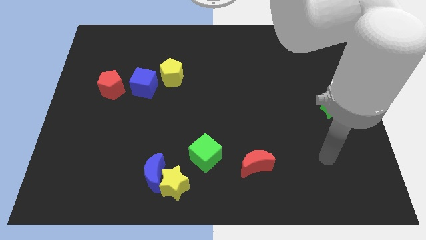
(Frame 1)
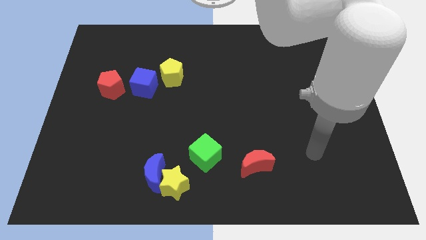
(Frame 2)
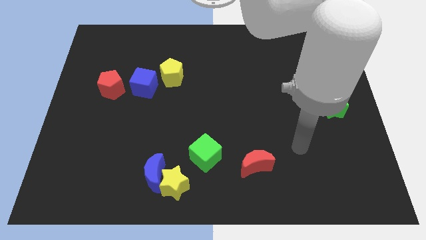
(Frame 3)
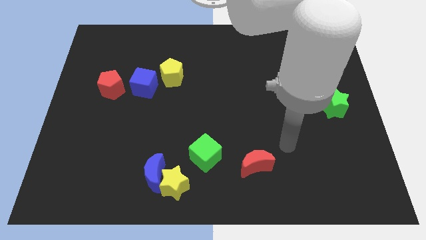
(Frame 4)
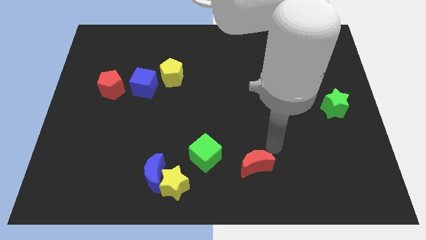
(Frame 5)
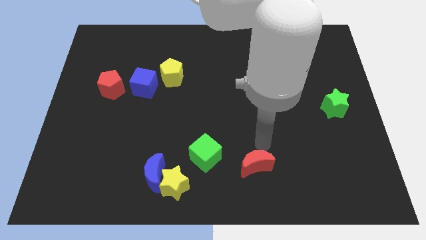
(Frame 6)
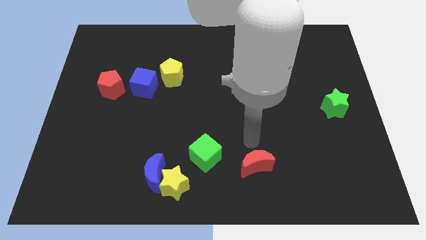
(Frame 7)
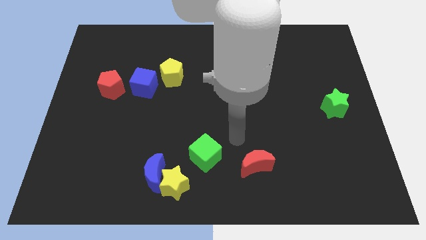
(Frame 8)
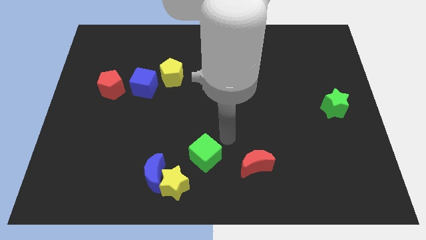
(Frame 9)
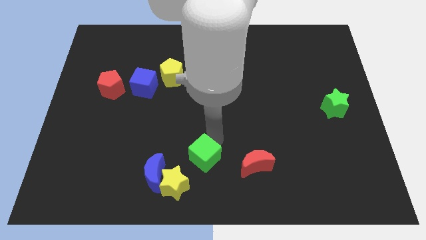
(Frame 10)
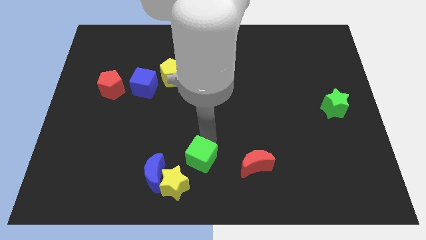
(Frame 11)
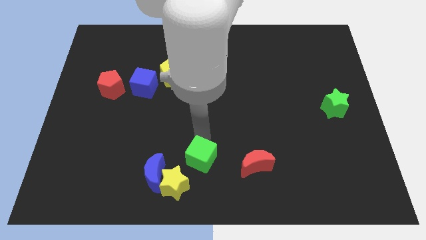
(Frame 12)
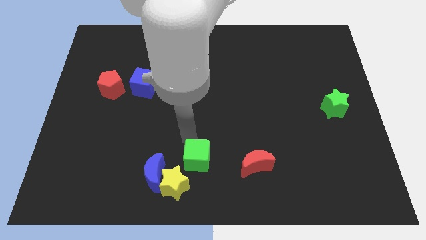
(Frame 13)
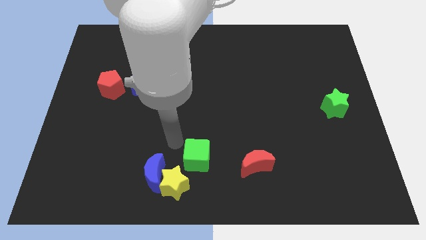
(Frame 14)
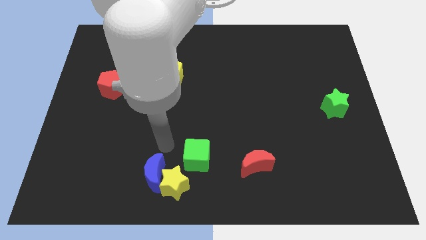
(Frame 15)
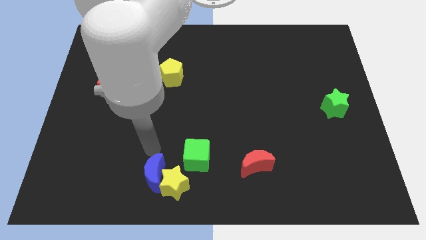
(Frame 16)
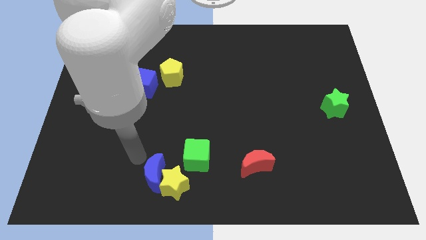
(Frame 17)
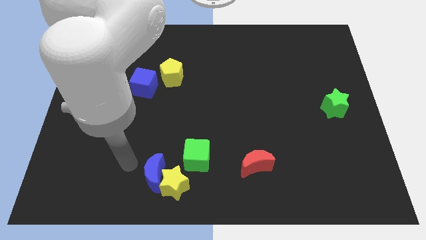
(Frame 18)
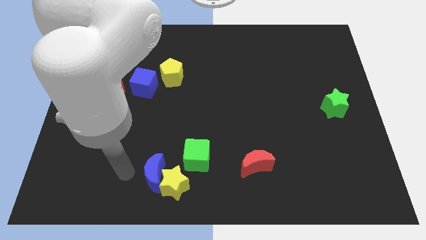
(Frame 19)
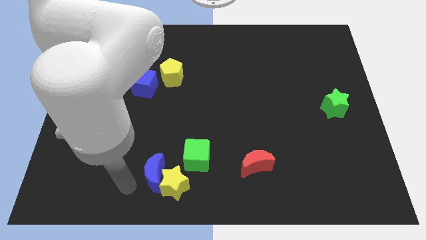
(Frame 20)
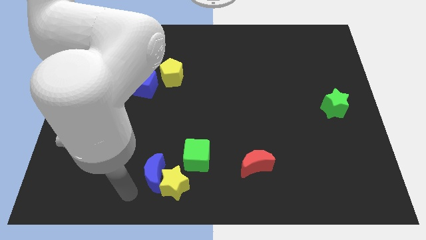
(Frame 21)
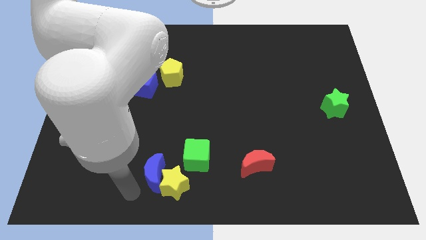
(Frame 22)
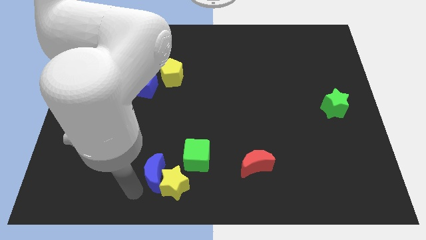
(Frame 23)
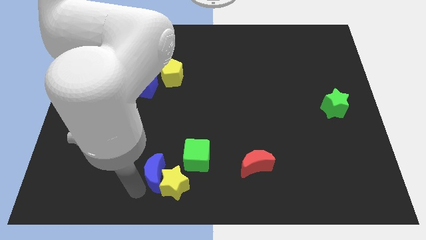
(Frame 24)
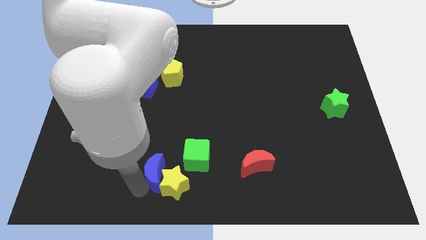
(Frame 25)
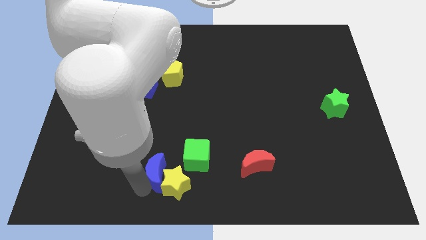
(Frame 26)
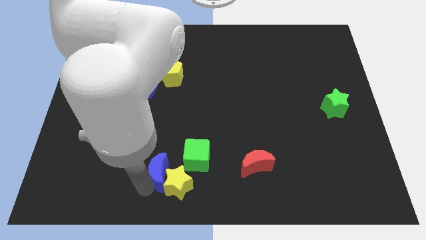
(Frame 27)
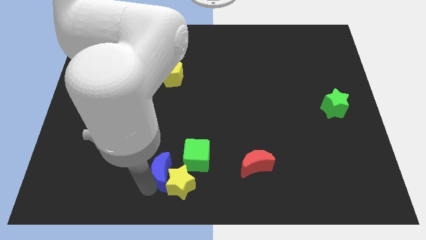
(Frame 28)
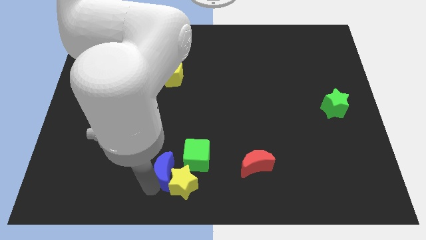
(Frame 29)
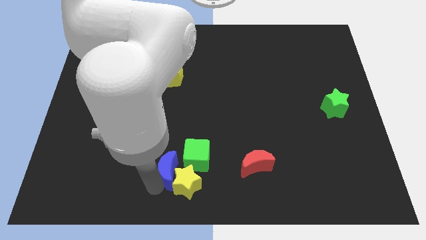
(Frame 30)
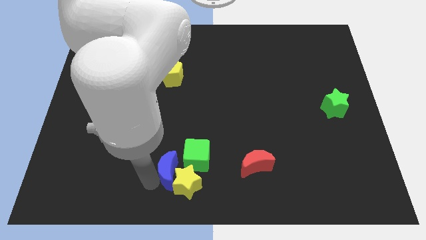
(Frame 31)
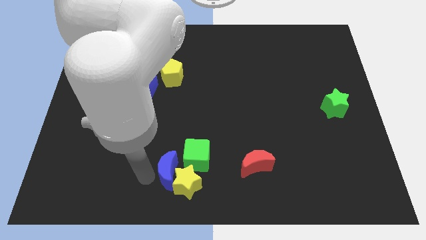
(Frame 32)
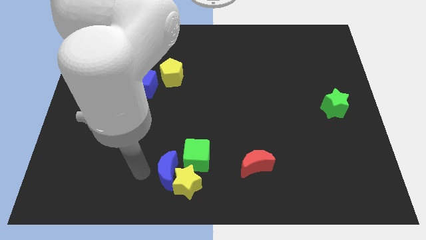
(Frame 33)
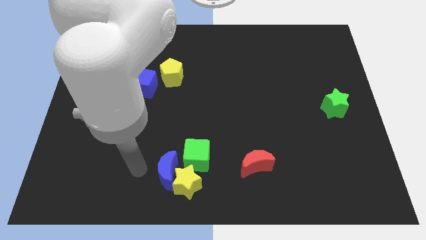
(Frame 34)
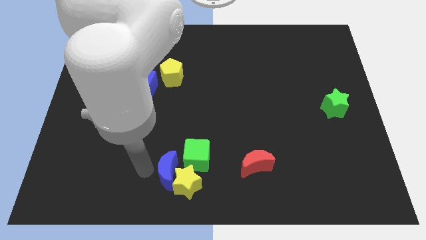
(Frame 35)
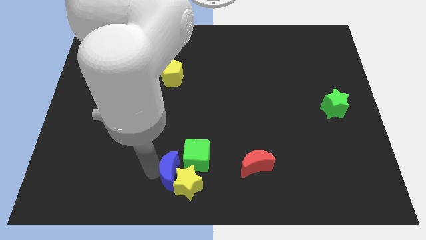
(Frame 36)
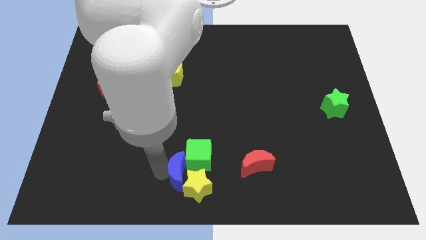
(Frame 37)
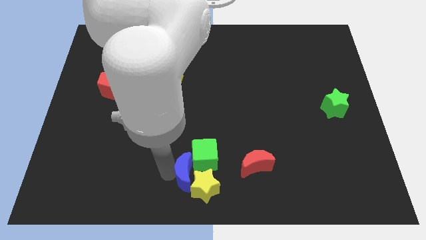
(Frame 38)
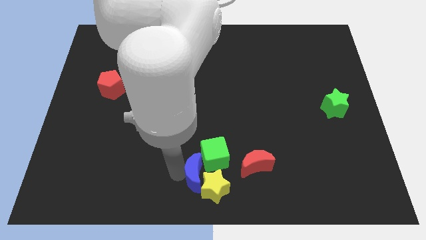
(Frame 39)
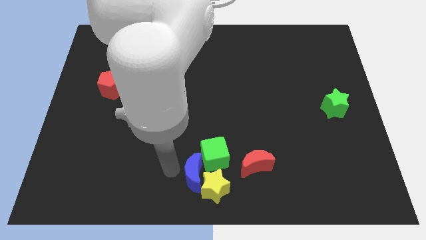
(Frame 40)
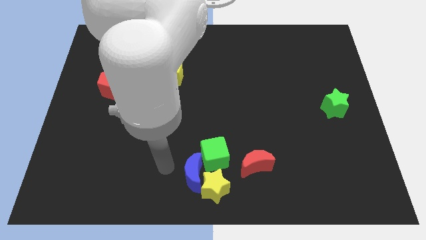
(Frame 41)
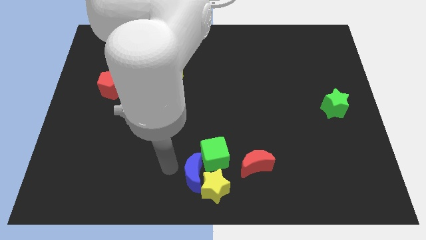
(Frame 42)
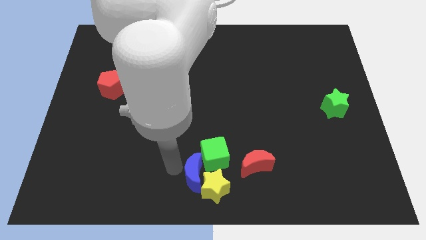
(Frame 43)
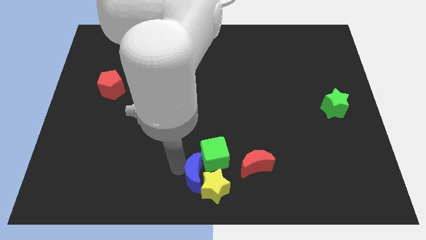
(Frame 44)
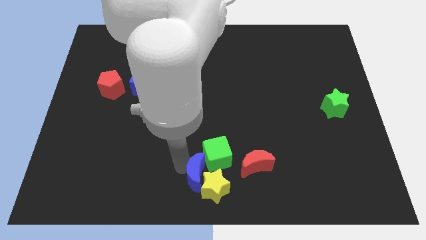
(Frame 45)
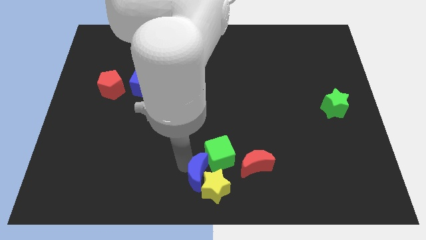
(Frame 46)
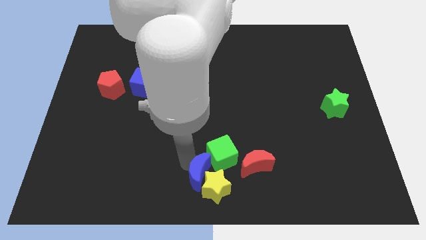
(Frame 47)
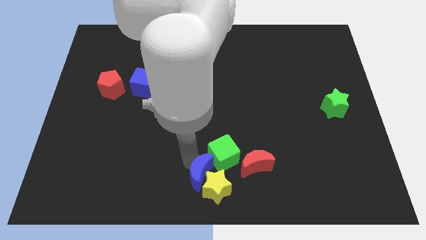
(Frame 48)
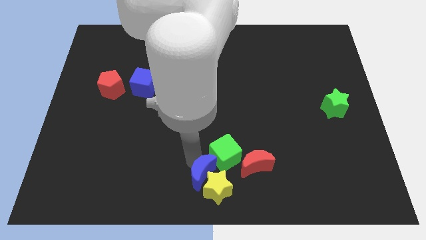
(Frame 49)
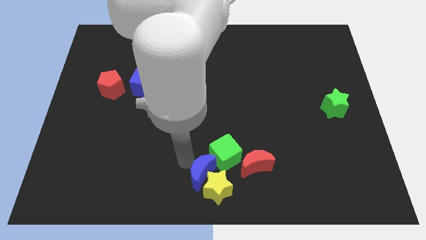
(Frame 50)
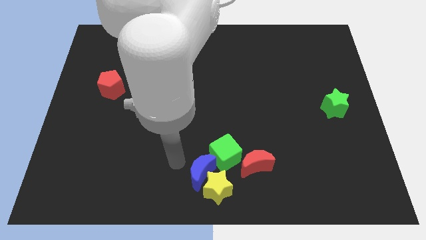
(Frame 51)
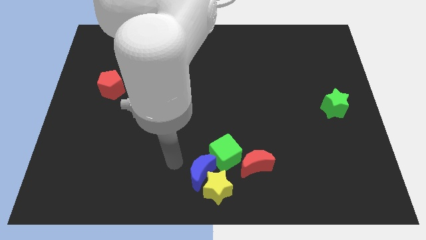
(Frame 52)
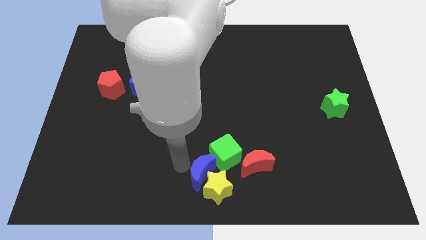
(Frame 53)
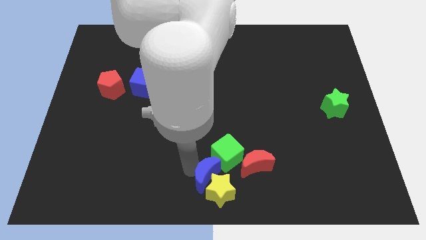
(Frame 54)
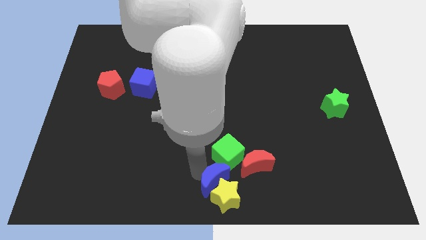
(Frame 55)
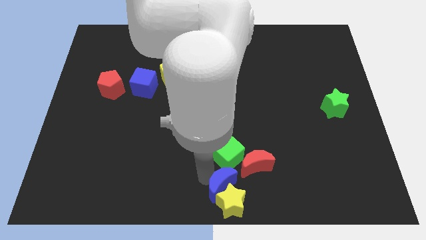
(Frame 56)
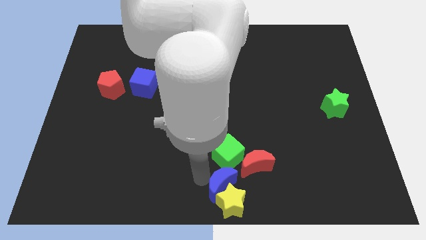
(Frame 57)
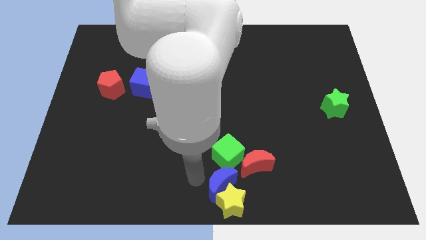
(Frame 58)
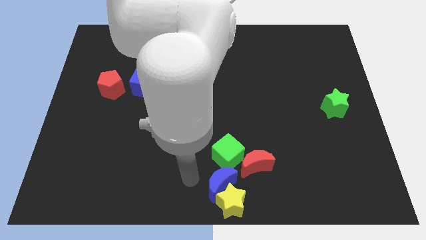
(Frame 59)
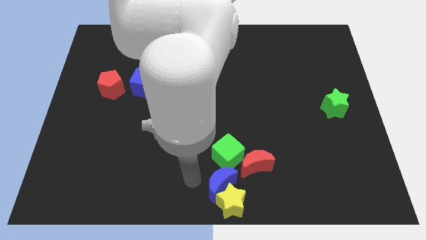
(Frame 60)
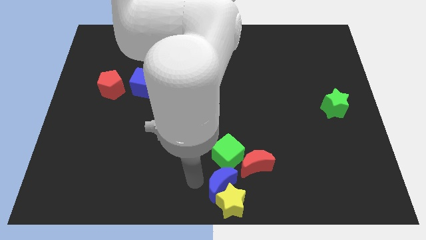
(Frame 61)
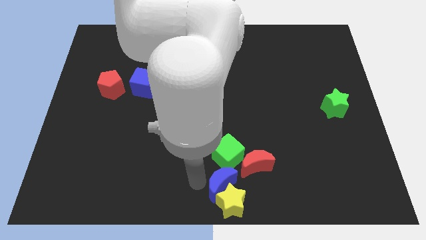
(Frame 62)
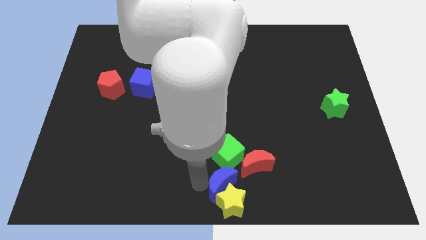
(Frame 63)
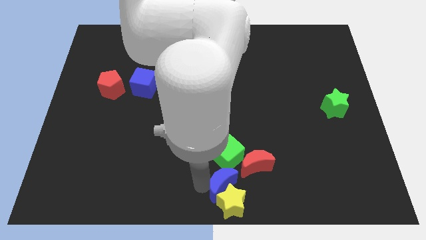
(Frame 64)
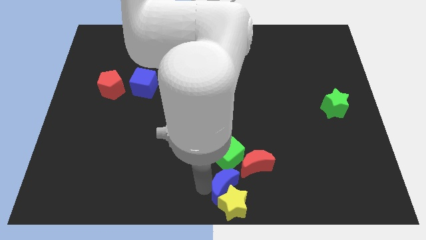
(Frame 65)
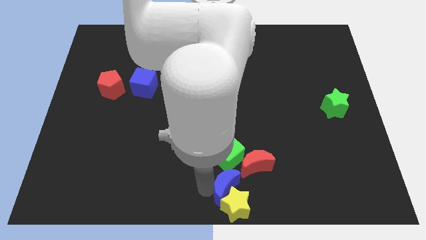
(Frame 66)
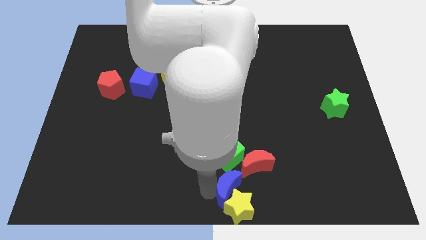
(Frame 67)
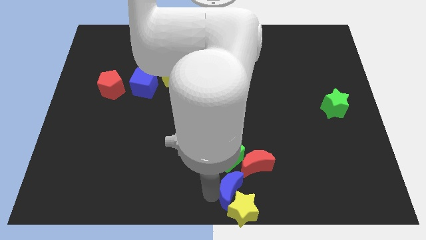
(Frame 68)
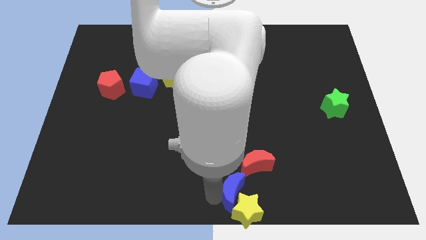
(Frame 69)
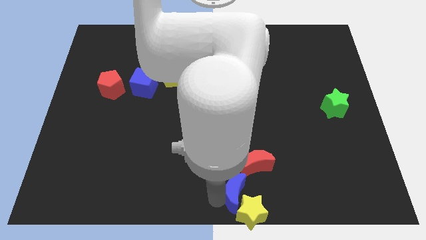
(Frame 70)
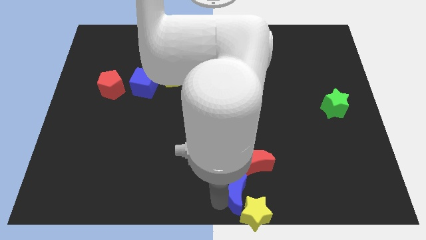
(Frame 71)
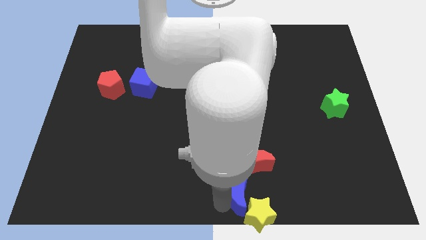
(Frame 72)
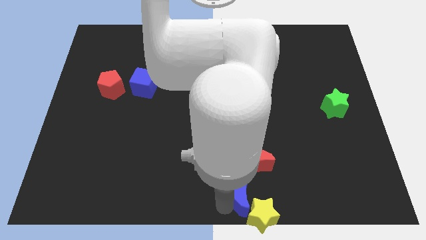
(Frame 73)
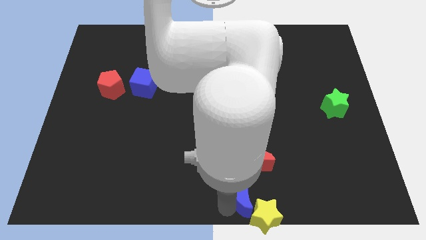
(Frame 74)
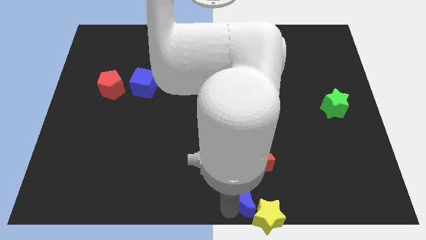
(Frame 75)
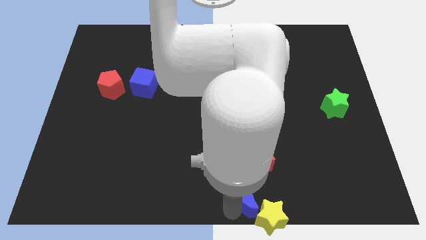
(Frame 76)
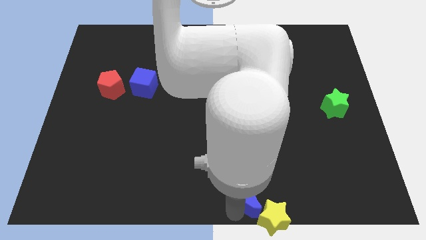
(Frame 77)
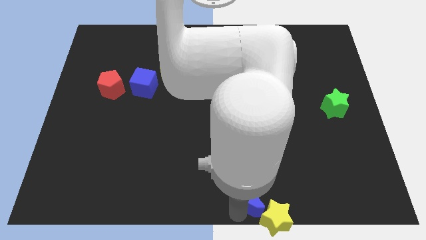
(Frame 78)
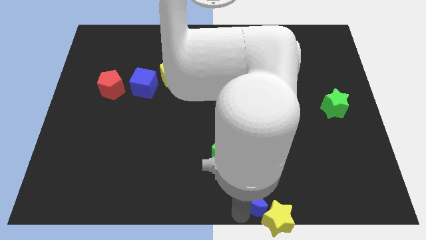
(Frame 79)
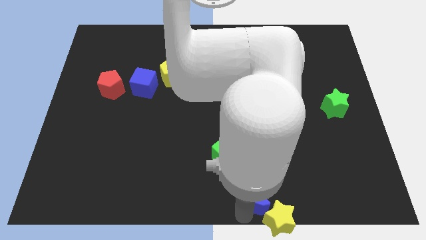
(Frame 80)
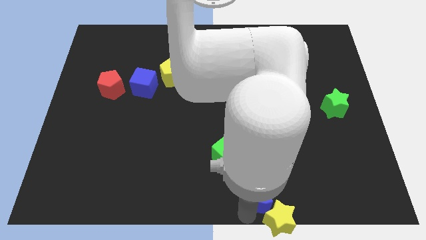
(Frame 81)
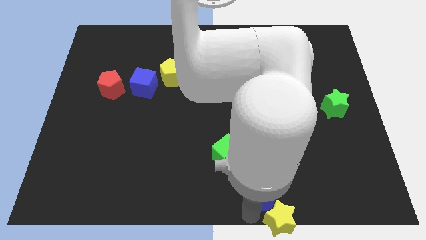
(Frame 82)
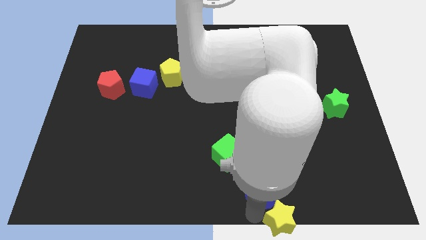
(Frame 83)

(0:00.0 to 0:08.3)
move the blue moon right
